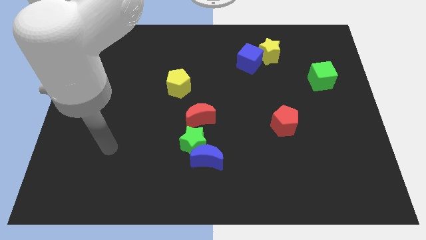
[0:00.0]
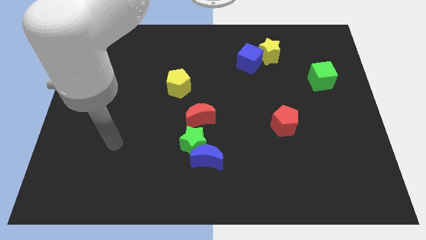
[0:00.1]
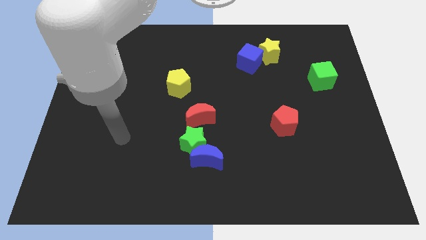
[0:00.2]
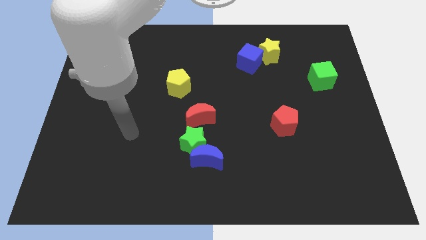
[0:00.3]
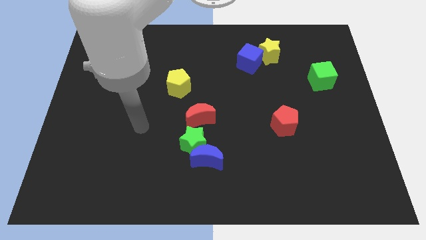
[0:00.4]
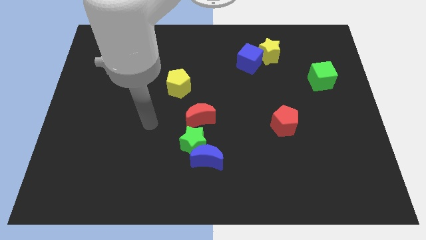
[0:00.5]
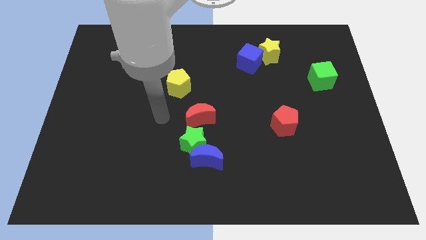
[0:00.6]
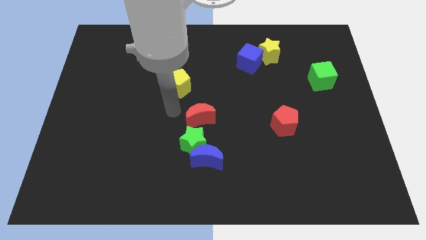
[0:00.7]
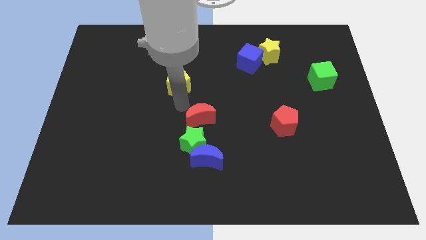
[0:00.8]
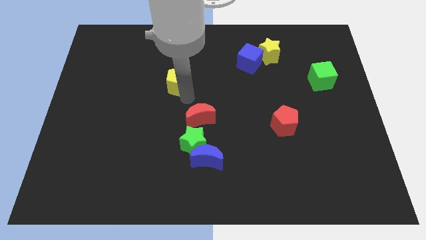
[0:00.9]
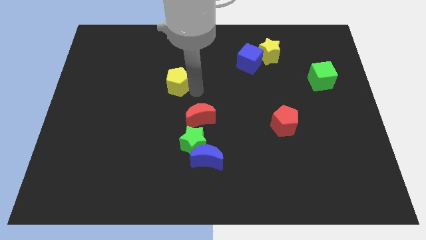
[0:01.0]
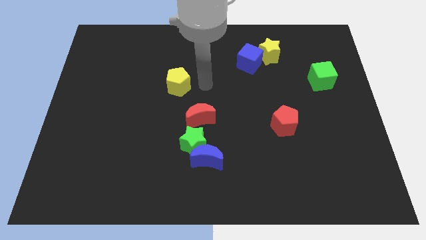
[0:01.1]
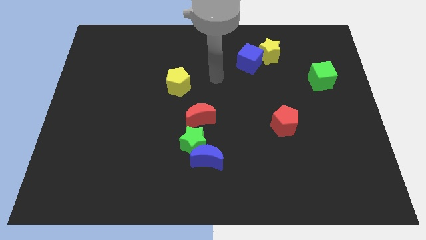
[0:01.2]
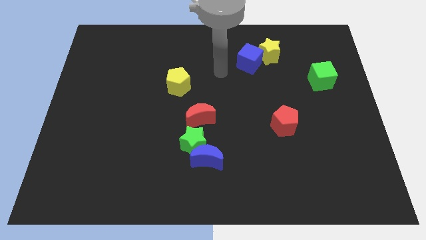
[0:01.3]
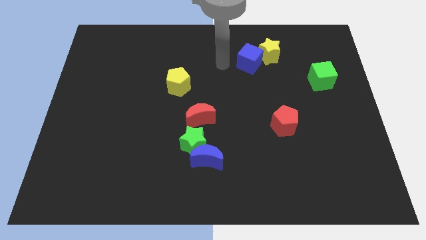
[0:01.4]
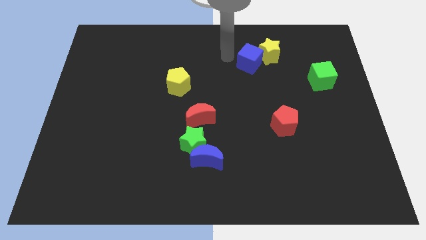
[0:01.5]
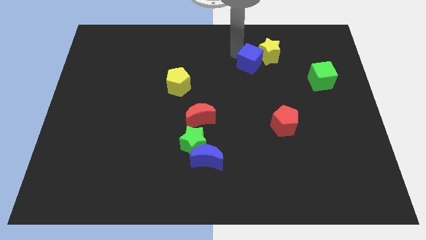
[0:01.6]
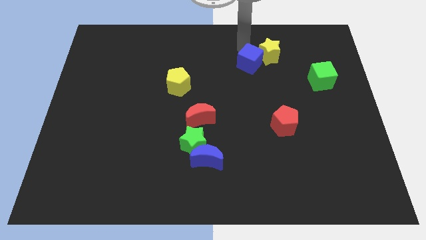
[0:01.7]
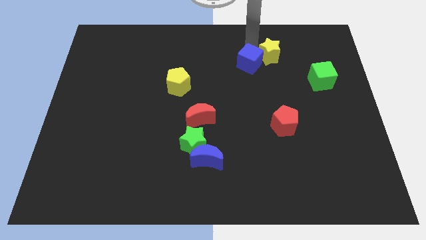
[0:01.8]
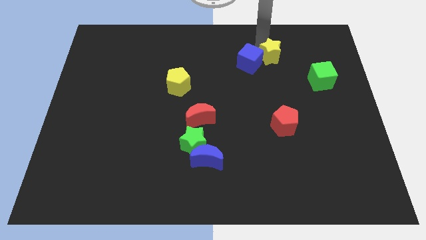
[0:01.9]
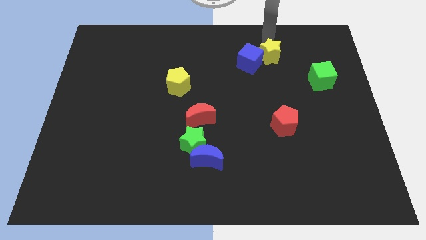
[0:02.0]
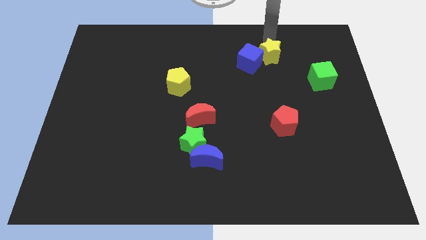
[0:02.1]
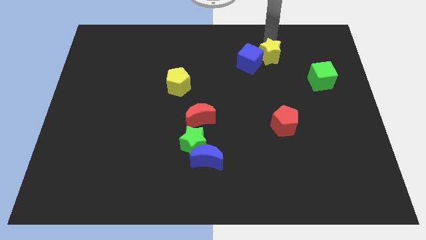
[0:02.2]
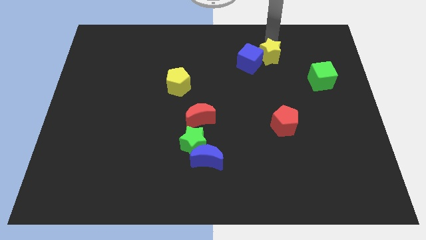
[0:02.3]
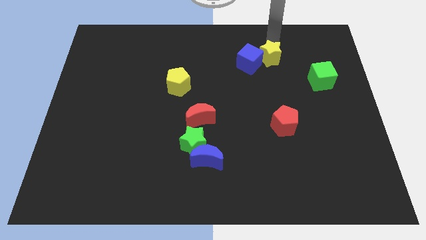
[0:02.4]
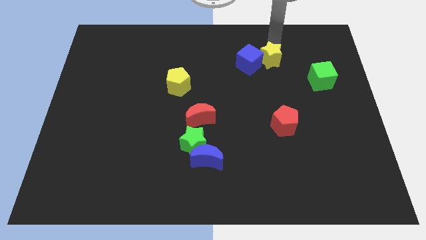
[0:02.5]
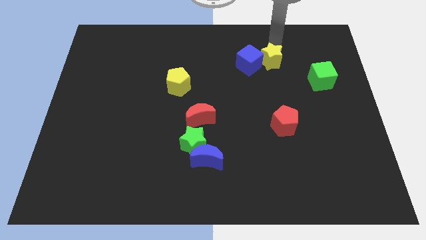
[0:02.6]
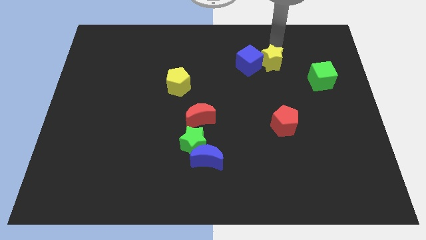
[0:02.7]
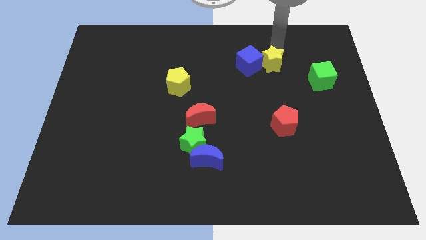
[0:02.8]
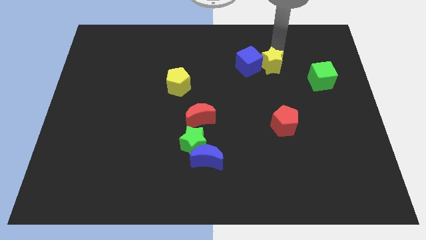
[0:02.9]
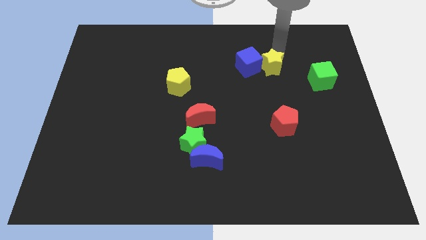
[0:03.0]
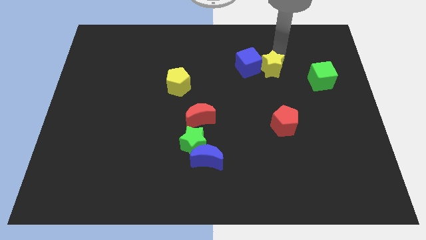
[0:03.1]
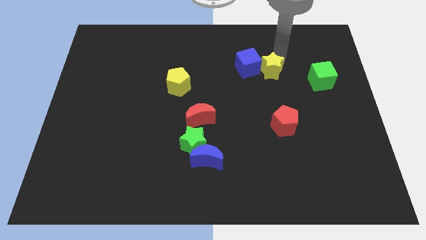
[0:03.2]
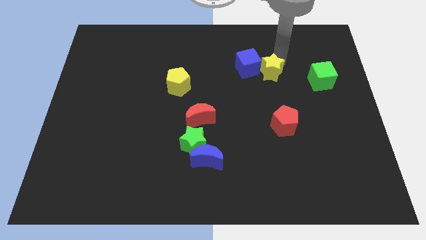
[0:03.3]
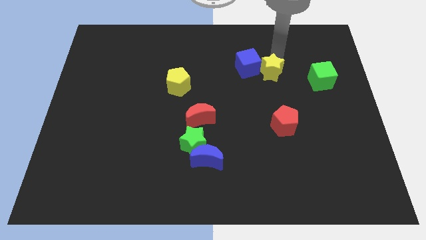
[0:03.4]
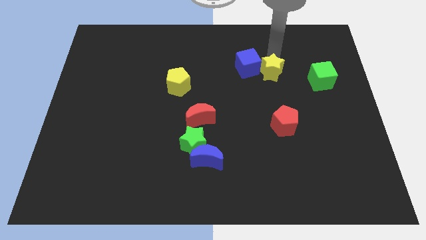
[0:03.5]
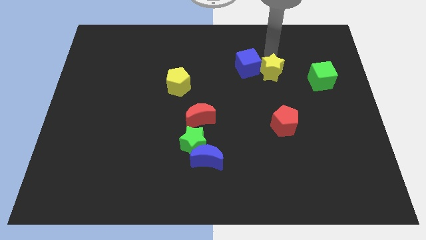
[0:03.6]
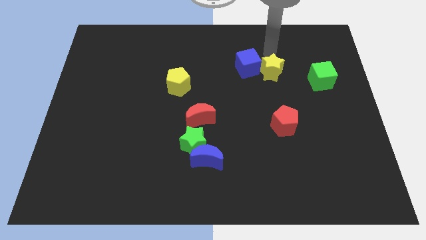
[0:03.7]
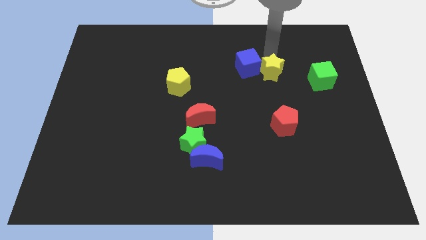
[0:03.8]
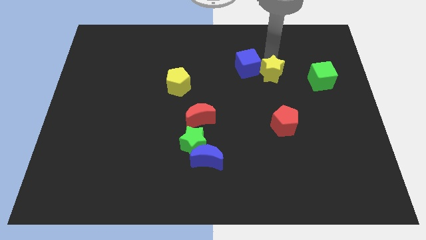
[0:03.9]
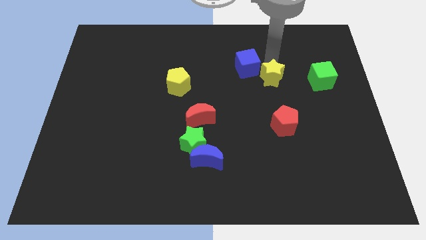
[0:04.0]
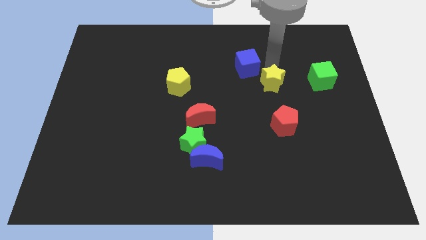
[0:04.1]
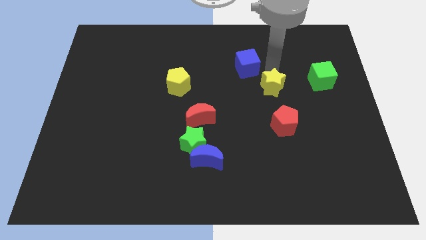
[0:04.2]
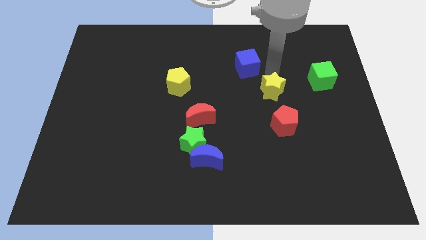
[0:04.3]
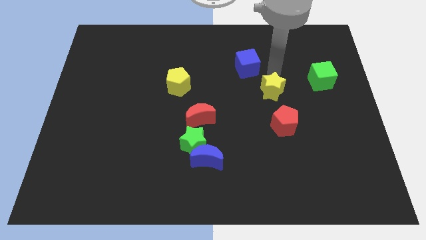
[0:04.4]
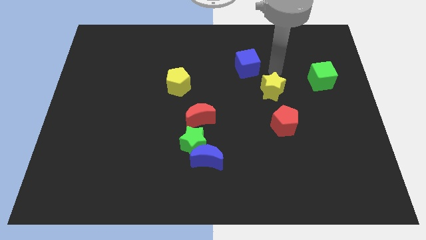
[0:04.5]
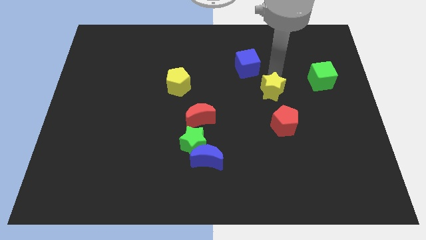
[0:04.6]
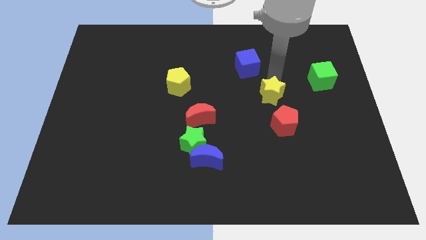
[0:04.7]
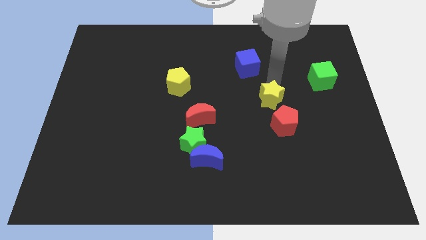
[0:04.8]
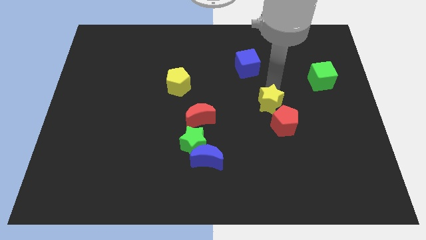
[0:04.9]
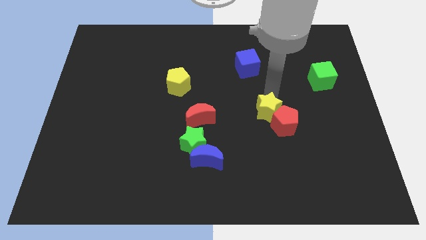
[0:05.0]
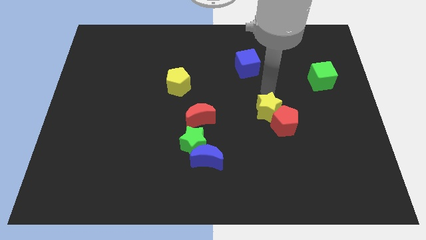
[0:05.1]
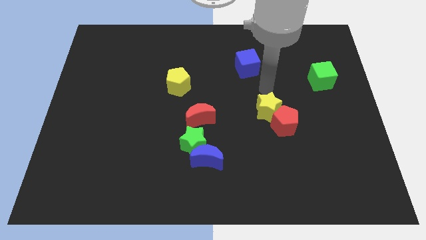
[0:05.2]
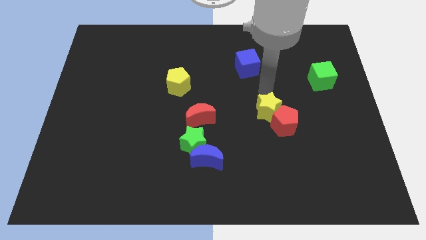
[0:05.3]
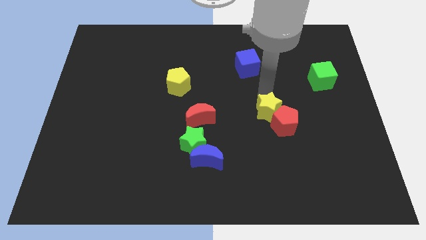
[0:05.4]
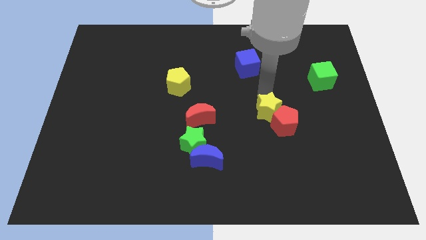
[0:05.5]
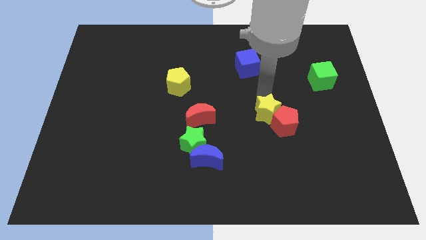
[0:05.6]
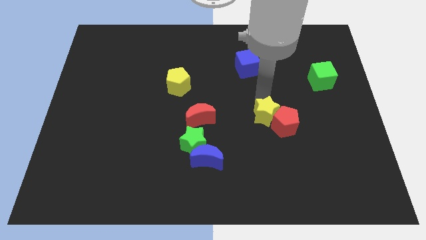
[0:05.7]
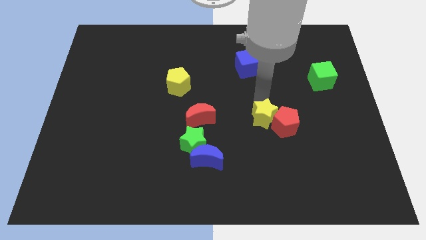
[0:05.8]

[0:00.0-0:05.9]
push the yellow star down

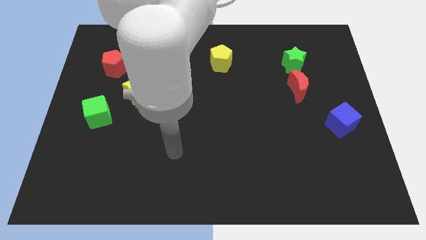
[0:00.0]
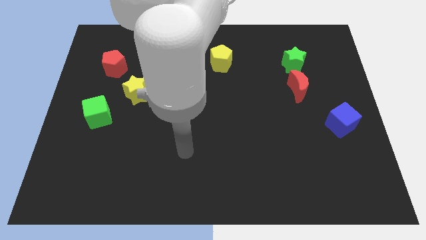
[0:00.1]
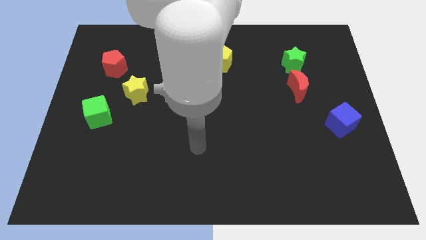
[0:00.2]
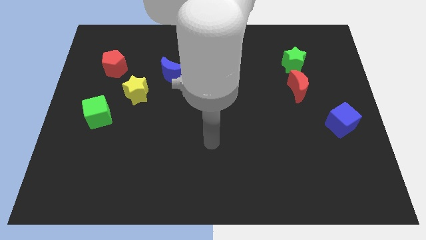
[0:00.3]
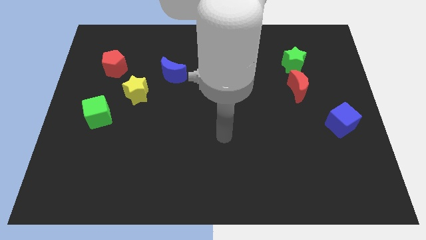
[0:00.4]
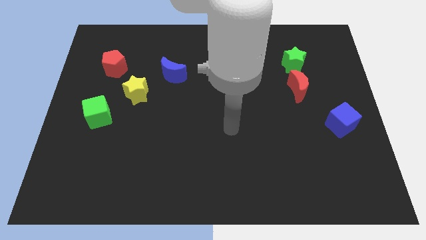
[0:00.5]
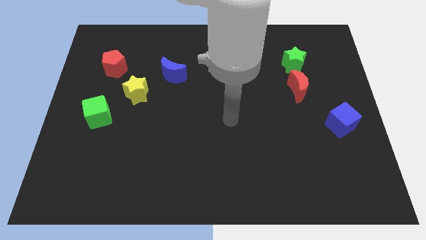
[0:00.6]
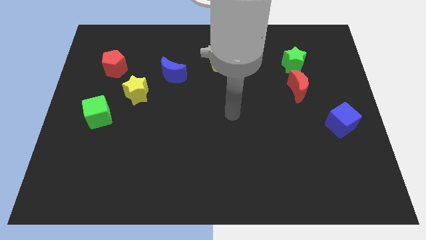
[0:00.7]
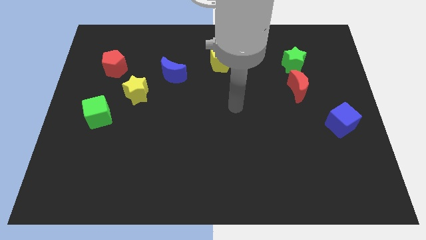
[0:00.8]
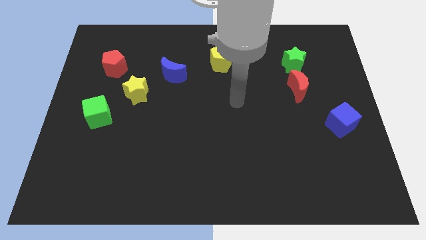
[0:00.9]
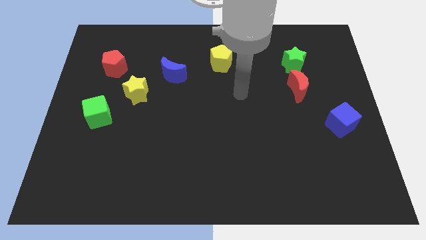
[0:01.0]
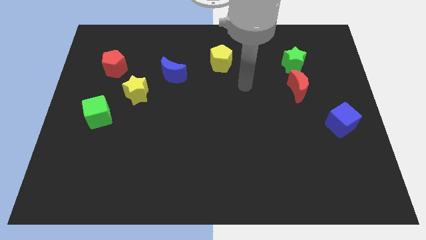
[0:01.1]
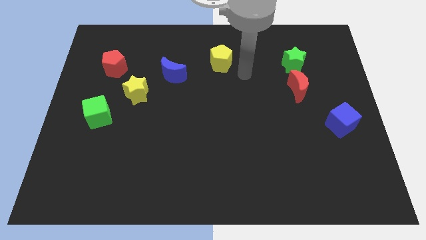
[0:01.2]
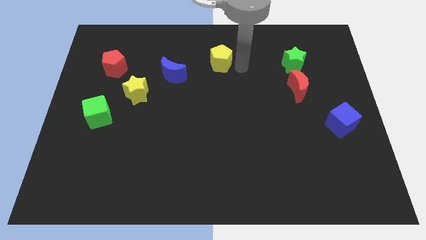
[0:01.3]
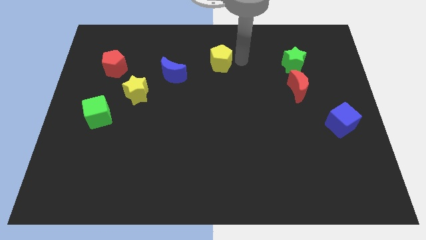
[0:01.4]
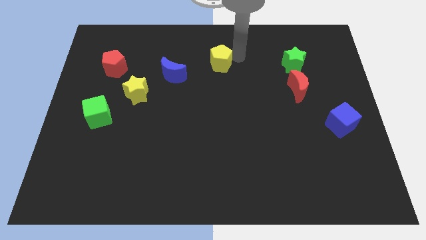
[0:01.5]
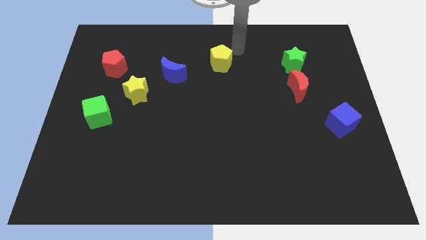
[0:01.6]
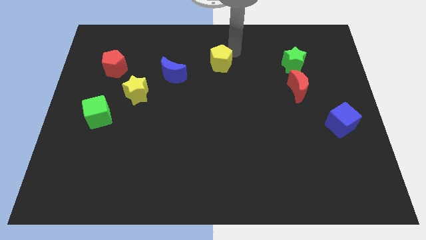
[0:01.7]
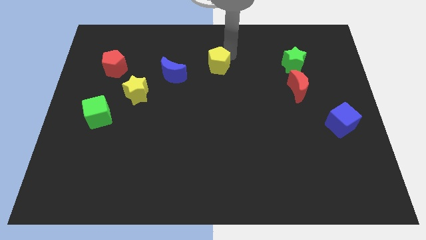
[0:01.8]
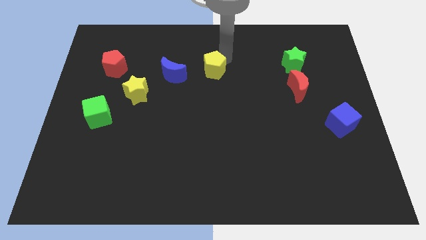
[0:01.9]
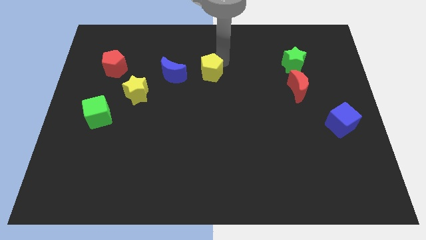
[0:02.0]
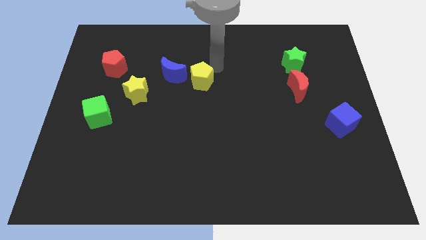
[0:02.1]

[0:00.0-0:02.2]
push the yellow pentagon a little downwards and then to the left
